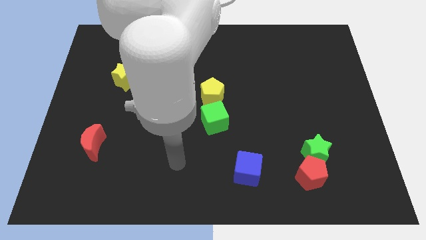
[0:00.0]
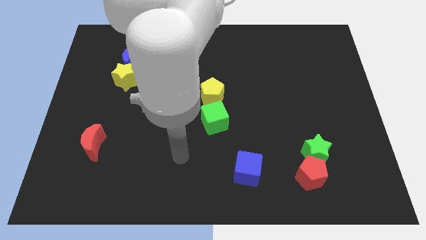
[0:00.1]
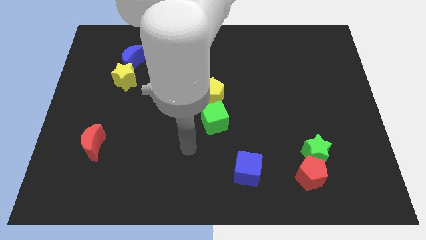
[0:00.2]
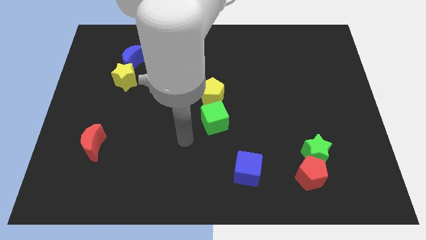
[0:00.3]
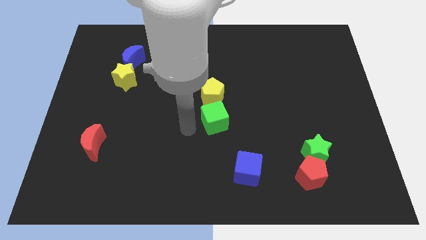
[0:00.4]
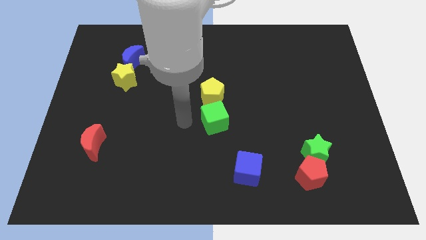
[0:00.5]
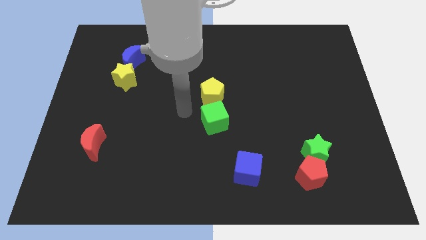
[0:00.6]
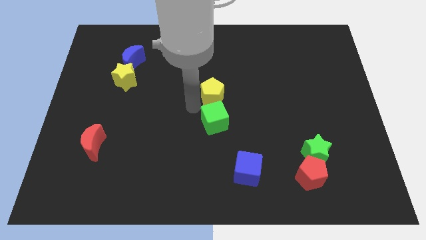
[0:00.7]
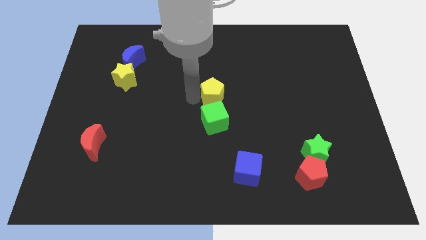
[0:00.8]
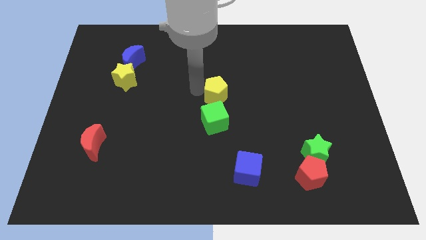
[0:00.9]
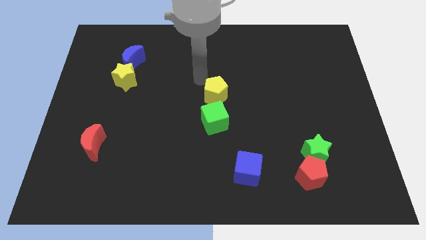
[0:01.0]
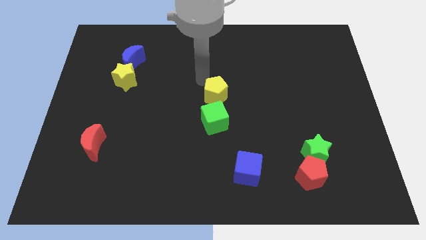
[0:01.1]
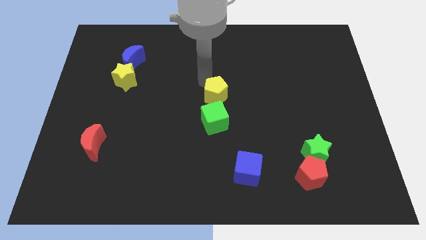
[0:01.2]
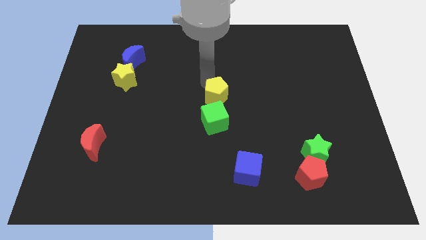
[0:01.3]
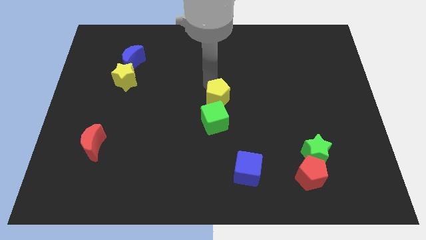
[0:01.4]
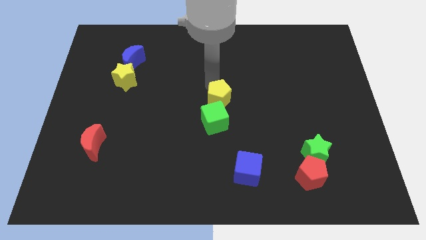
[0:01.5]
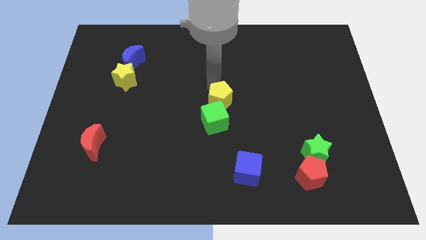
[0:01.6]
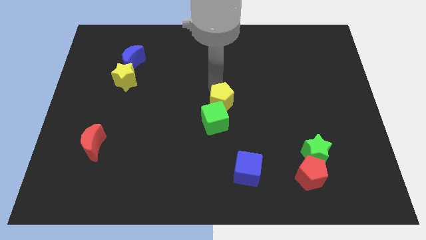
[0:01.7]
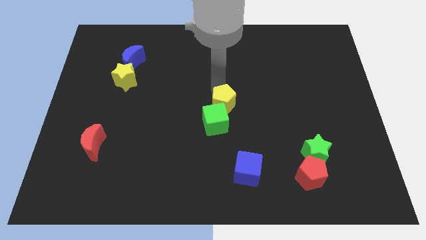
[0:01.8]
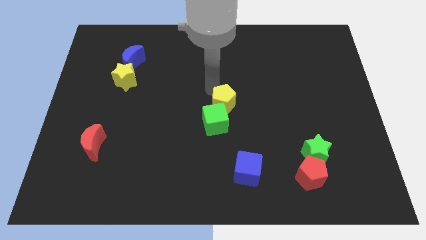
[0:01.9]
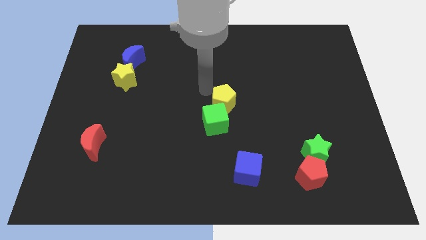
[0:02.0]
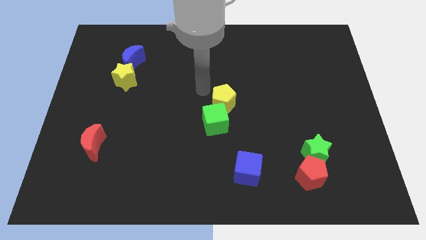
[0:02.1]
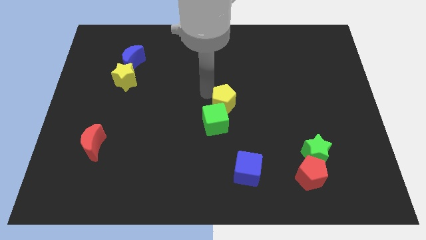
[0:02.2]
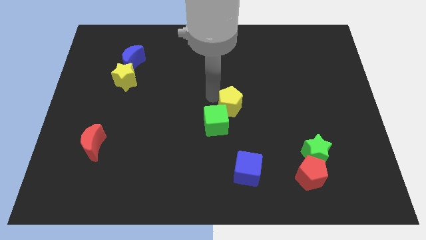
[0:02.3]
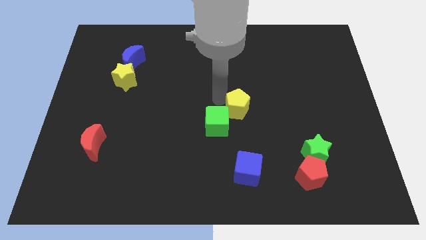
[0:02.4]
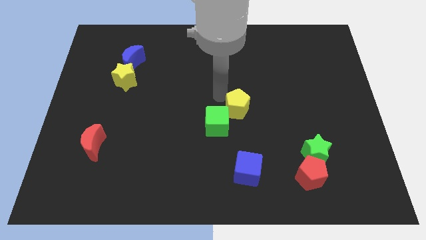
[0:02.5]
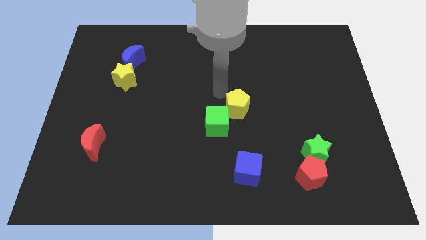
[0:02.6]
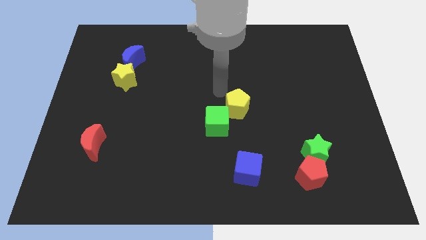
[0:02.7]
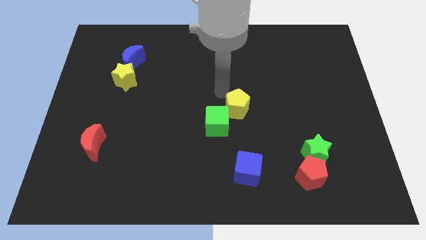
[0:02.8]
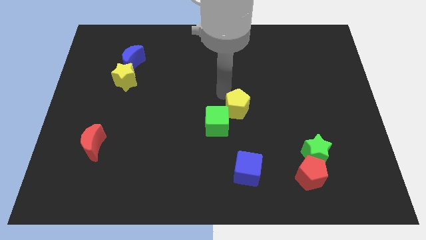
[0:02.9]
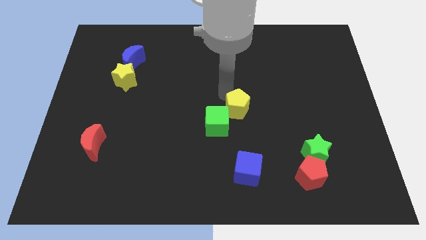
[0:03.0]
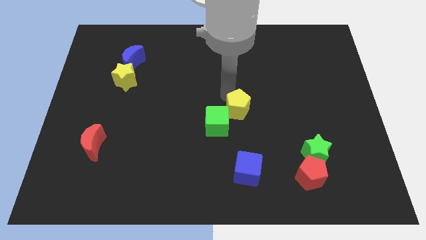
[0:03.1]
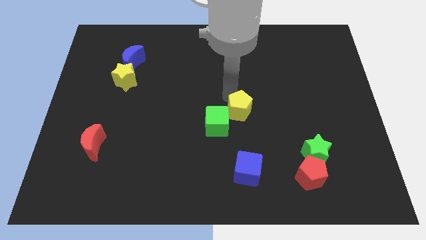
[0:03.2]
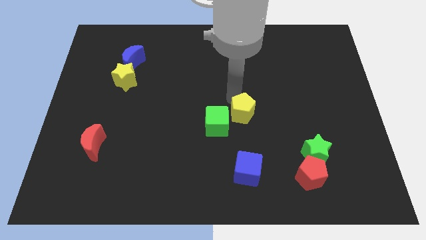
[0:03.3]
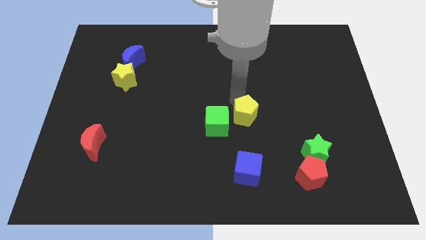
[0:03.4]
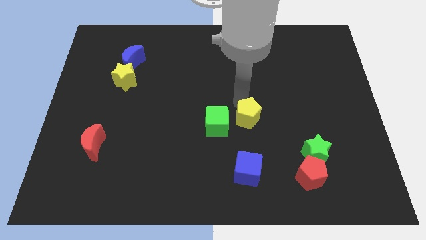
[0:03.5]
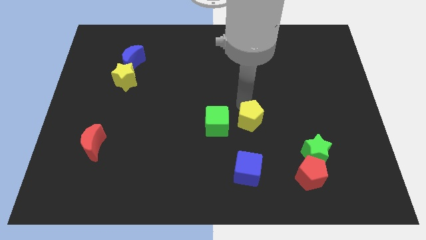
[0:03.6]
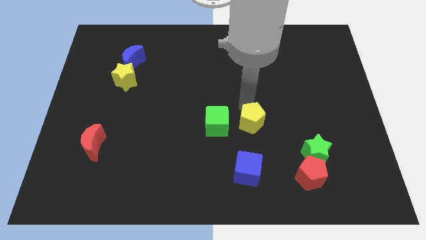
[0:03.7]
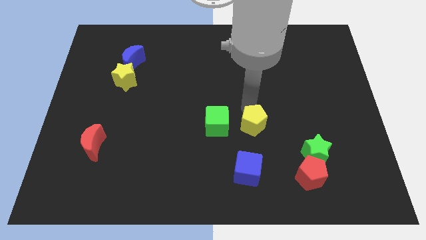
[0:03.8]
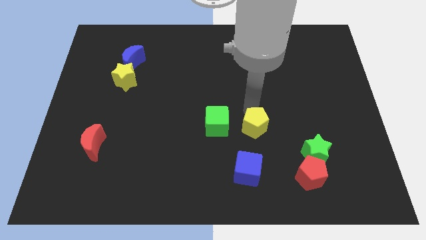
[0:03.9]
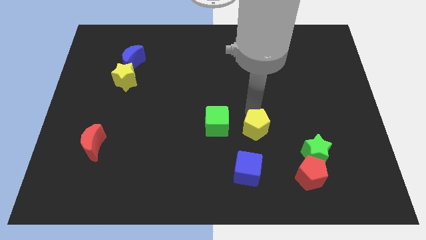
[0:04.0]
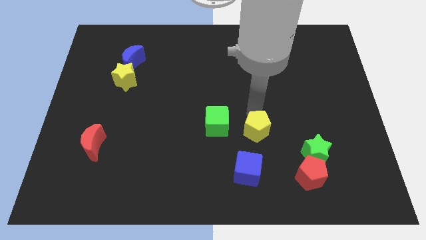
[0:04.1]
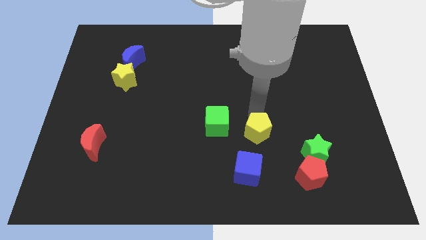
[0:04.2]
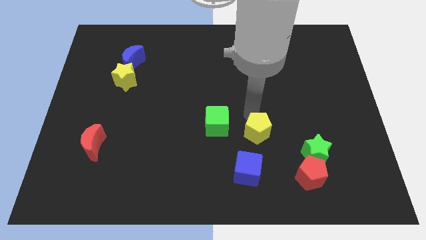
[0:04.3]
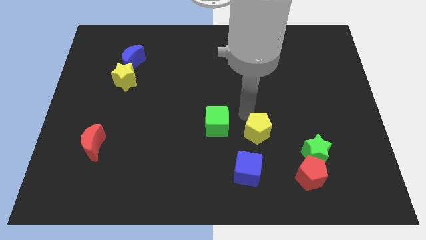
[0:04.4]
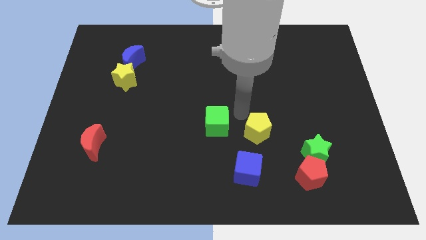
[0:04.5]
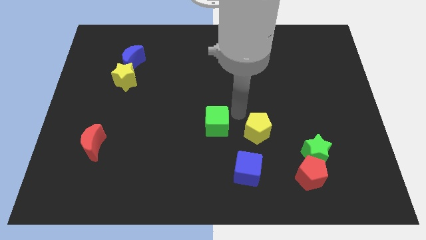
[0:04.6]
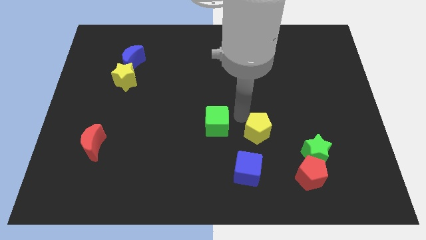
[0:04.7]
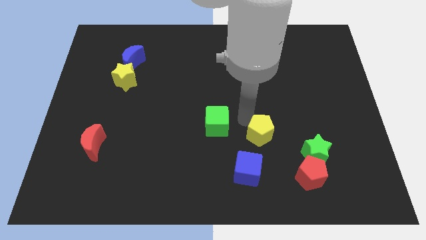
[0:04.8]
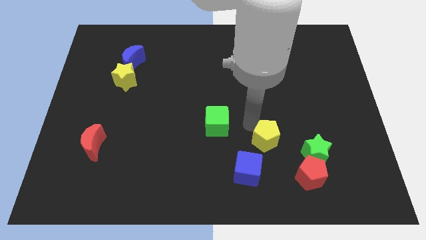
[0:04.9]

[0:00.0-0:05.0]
push the yellow pentagon diagonally up and to the left of the red pentagon

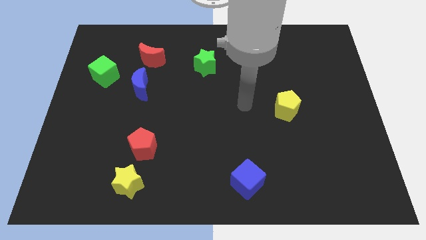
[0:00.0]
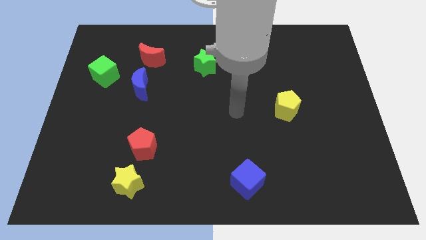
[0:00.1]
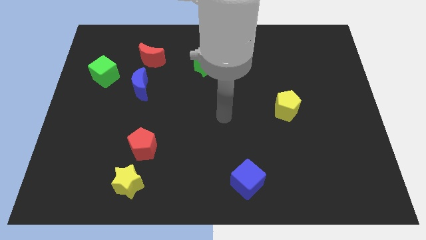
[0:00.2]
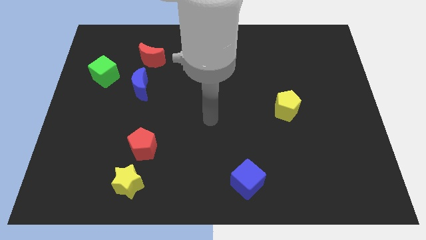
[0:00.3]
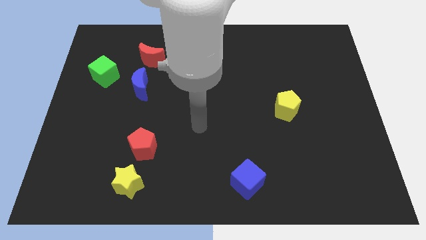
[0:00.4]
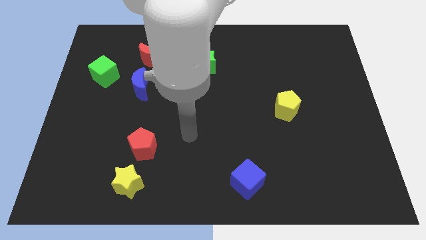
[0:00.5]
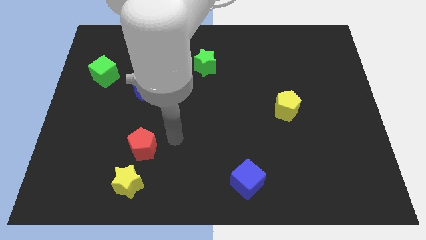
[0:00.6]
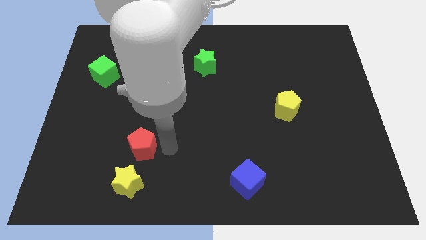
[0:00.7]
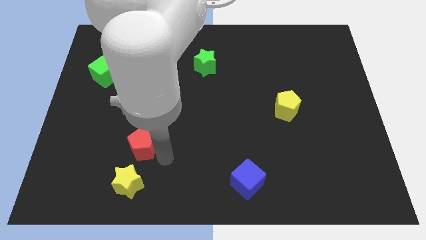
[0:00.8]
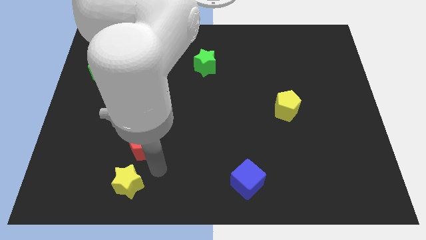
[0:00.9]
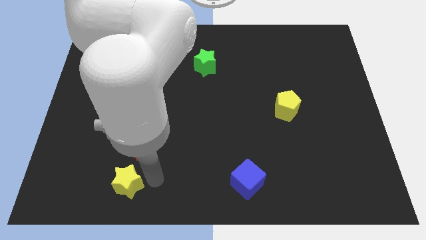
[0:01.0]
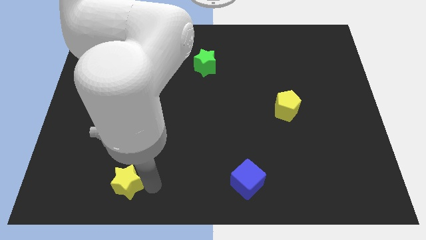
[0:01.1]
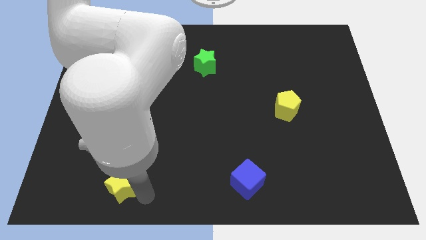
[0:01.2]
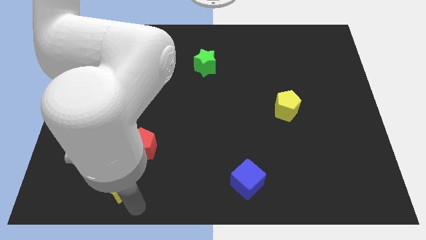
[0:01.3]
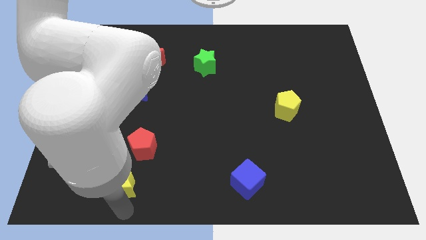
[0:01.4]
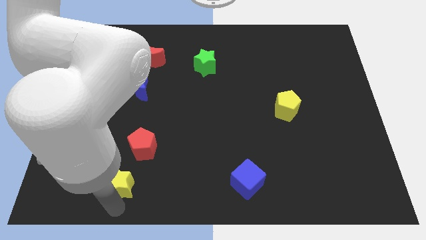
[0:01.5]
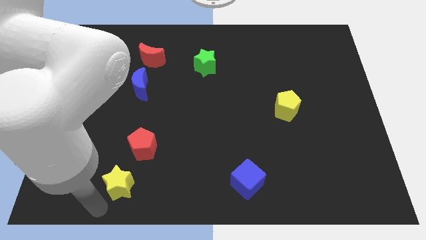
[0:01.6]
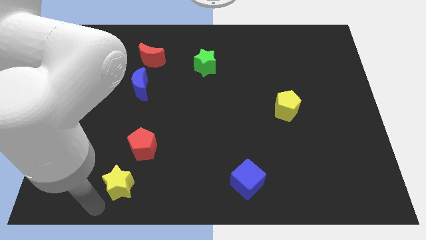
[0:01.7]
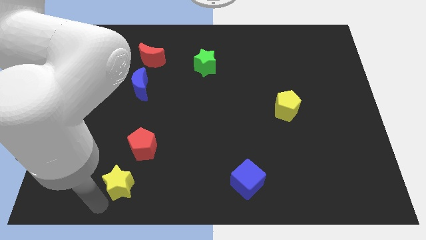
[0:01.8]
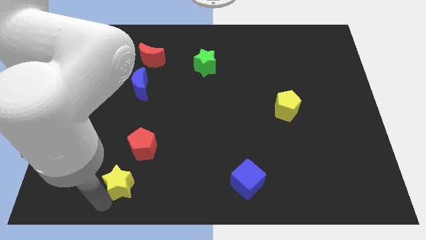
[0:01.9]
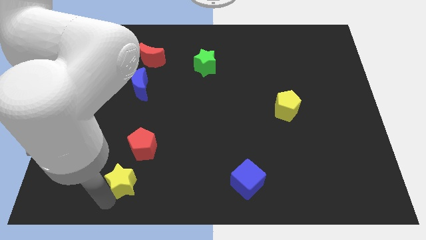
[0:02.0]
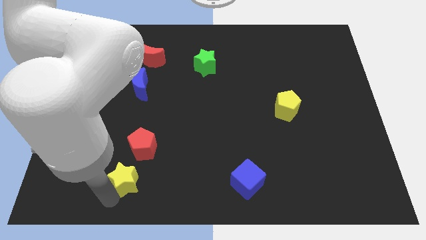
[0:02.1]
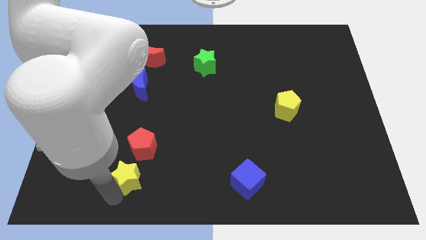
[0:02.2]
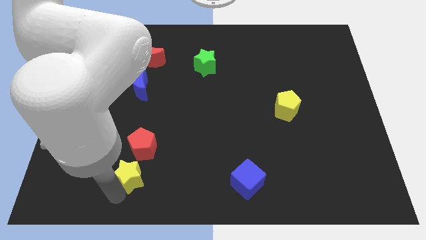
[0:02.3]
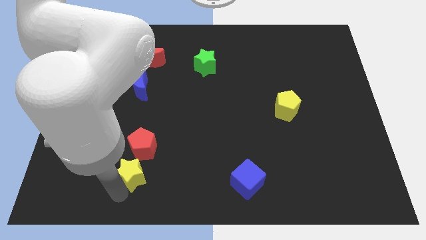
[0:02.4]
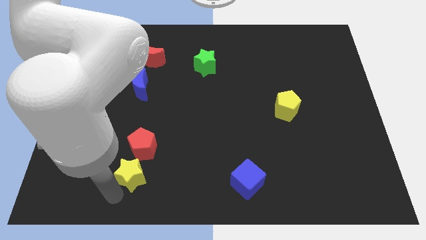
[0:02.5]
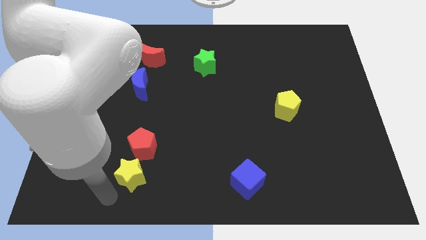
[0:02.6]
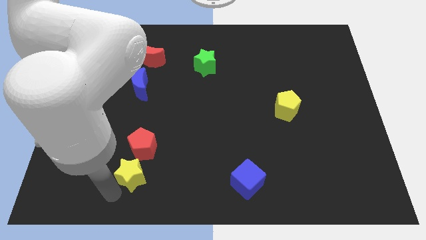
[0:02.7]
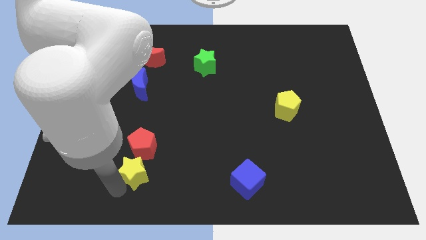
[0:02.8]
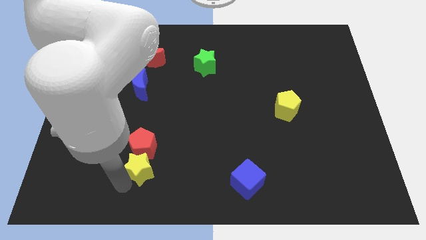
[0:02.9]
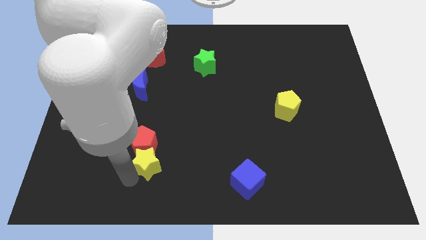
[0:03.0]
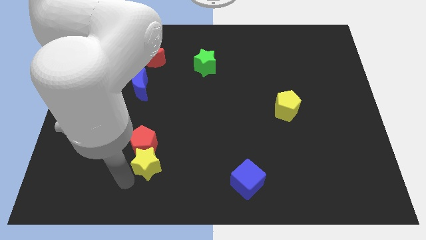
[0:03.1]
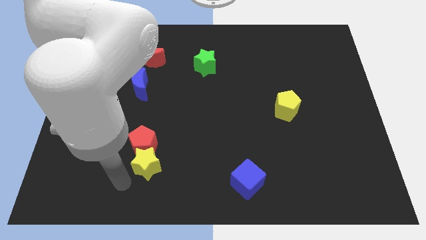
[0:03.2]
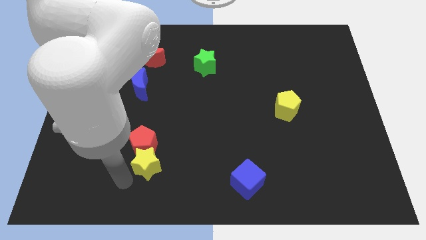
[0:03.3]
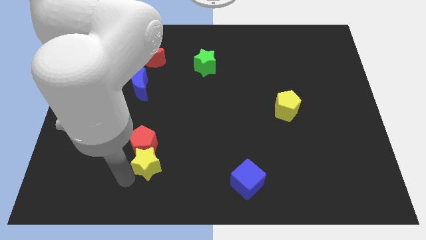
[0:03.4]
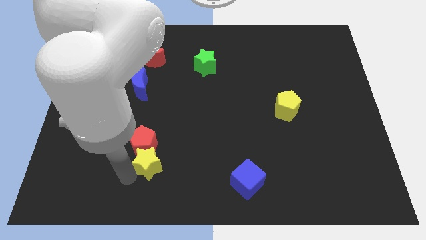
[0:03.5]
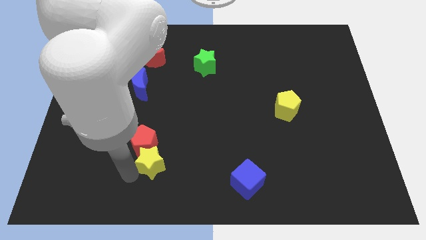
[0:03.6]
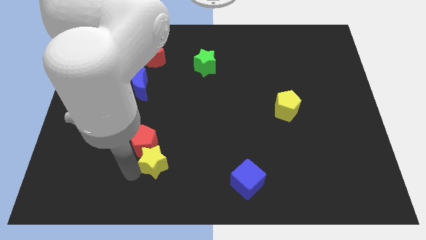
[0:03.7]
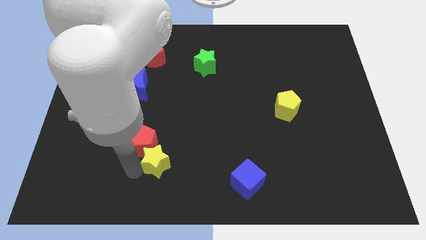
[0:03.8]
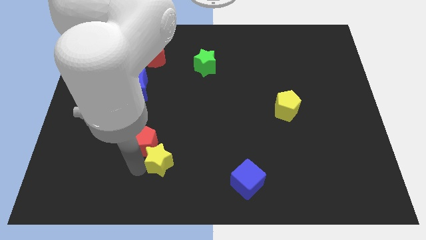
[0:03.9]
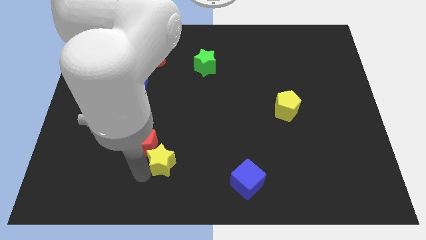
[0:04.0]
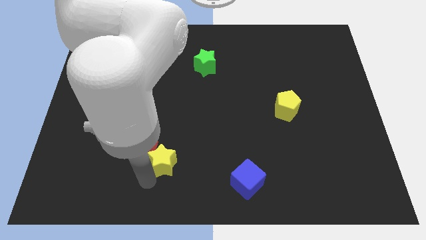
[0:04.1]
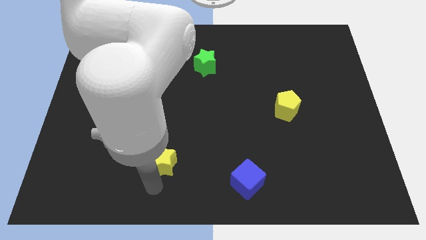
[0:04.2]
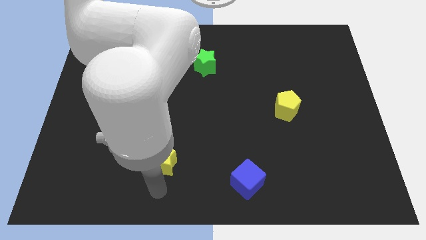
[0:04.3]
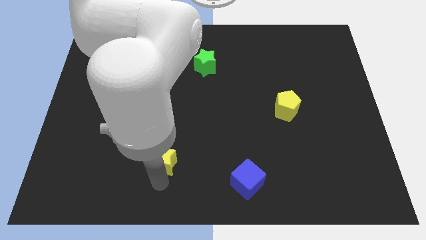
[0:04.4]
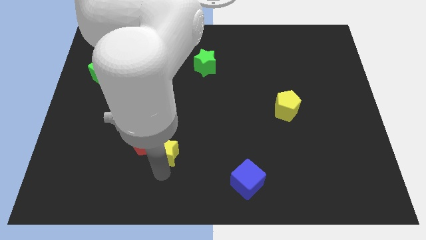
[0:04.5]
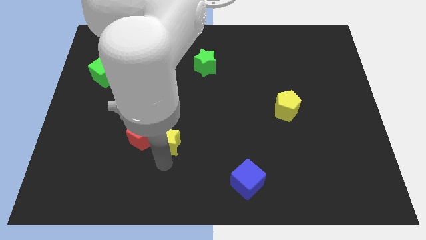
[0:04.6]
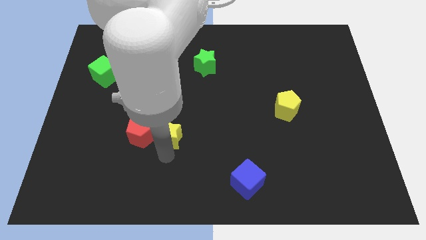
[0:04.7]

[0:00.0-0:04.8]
push the yellow star diagonally up and to the right of the red pentagon
